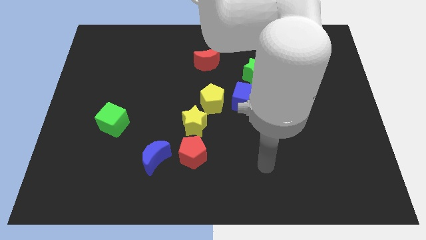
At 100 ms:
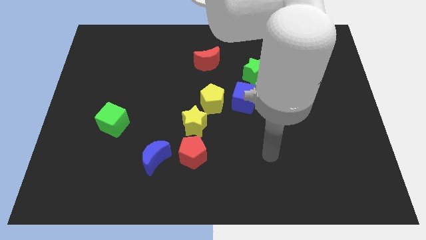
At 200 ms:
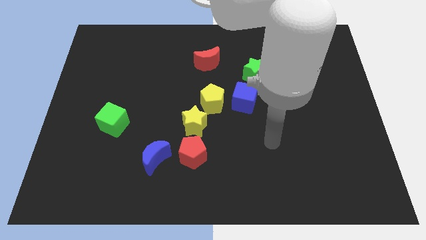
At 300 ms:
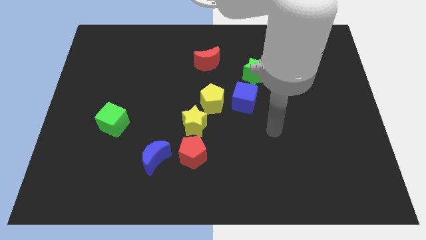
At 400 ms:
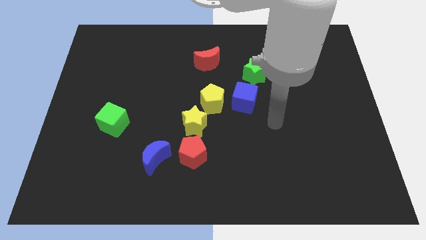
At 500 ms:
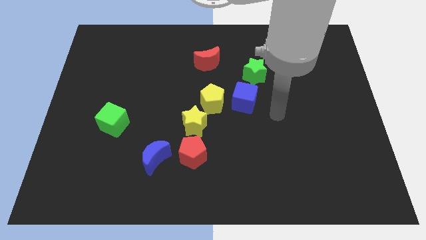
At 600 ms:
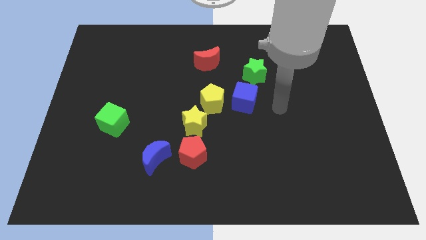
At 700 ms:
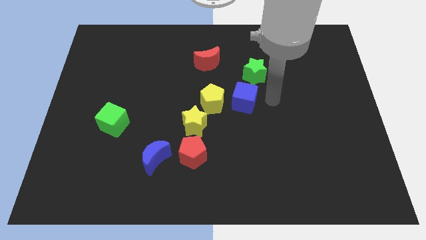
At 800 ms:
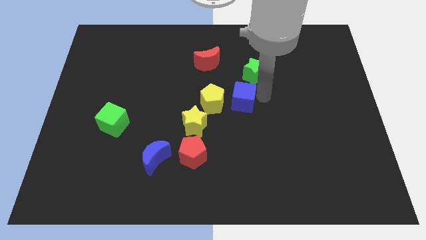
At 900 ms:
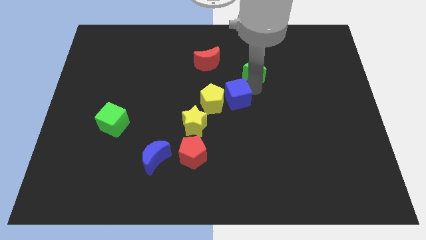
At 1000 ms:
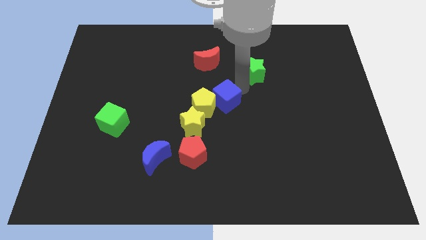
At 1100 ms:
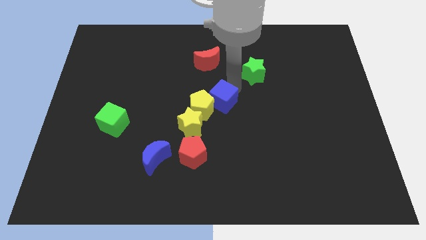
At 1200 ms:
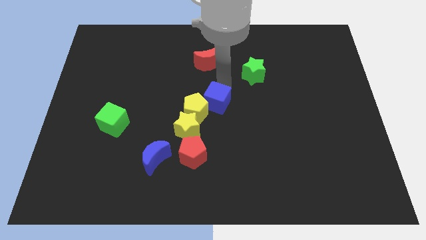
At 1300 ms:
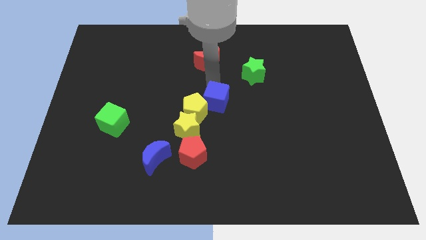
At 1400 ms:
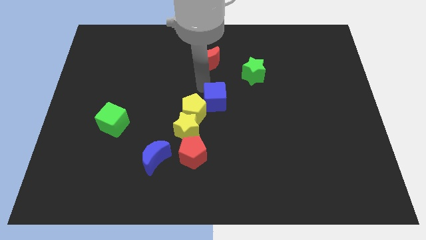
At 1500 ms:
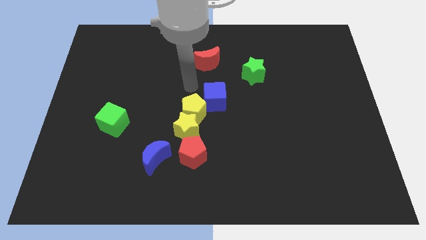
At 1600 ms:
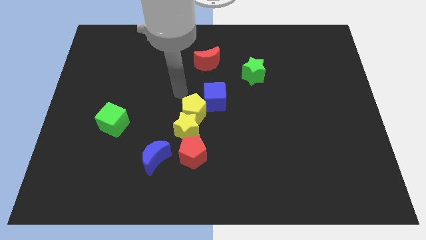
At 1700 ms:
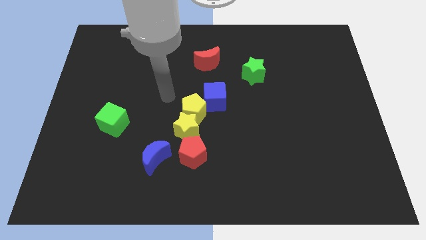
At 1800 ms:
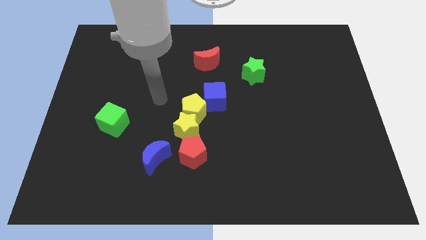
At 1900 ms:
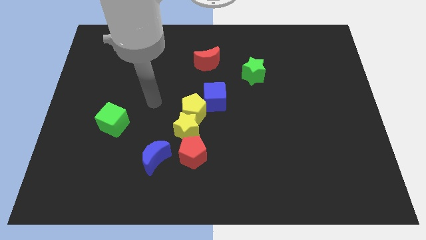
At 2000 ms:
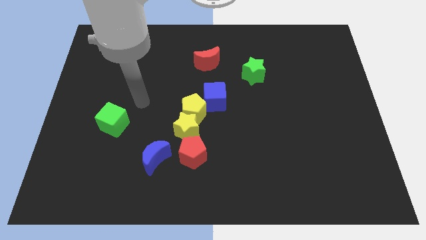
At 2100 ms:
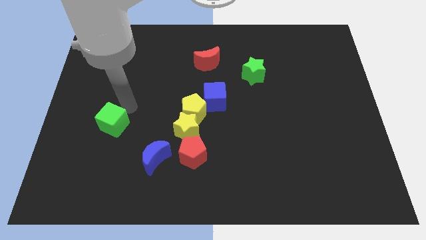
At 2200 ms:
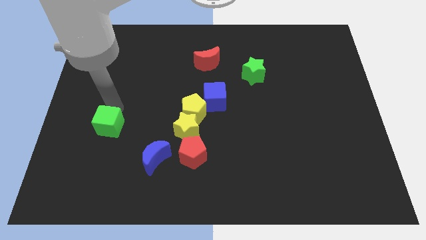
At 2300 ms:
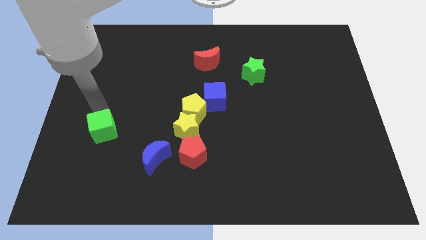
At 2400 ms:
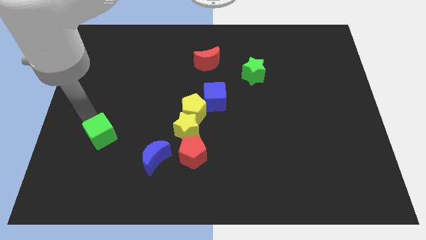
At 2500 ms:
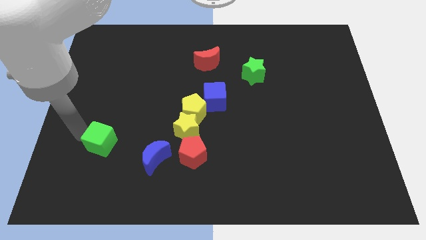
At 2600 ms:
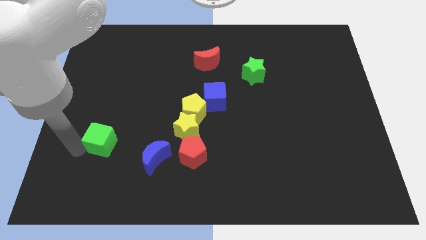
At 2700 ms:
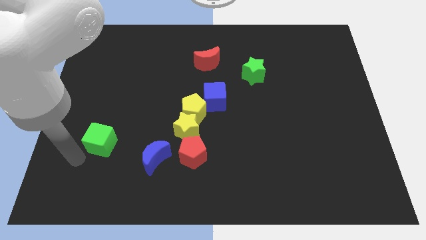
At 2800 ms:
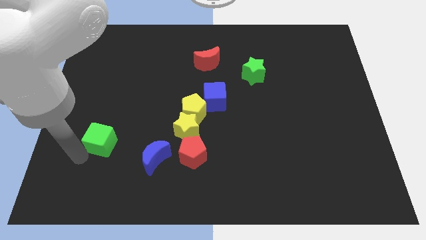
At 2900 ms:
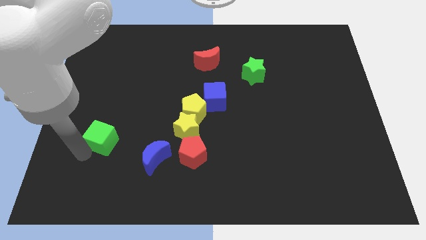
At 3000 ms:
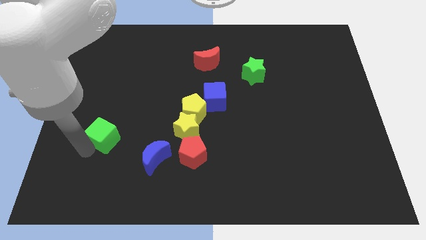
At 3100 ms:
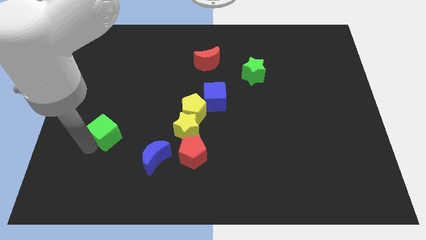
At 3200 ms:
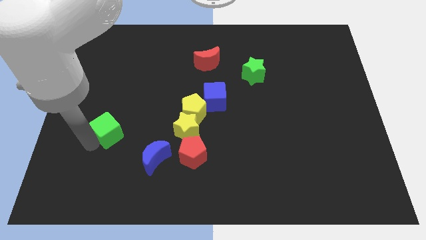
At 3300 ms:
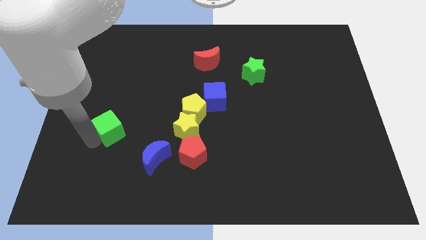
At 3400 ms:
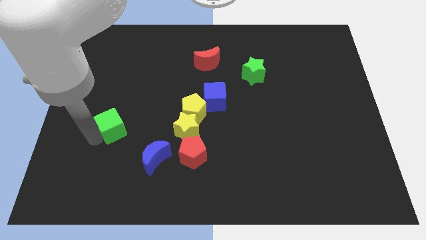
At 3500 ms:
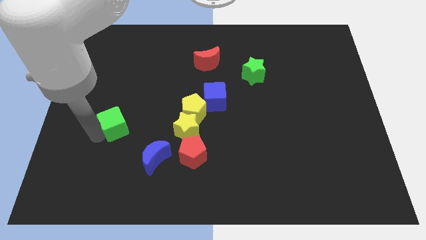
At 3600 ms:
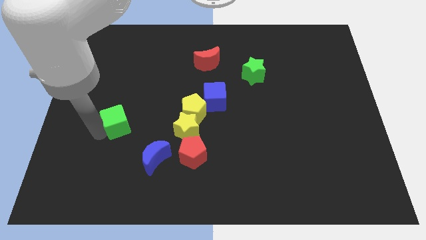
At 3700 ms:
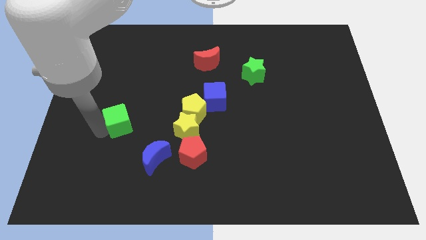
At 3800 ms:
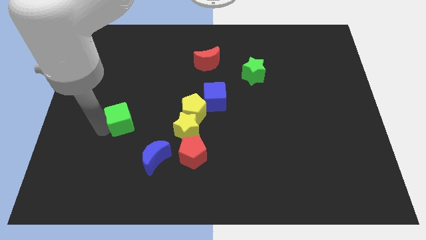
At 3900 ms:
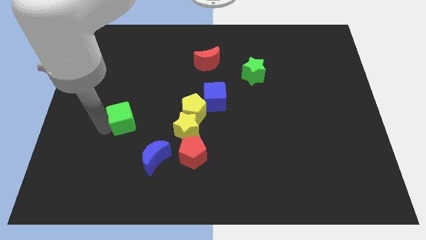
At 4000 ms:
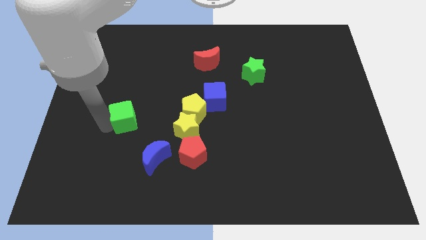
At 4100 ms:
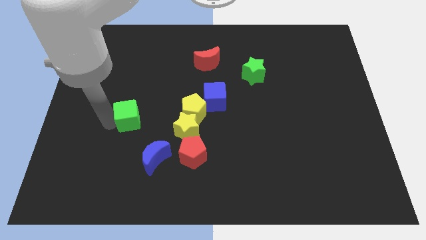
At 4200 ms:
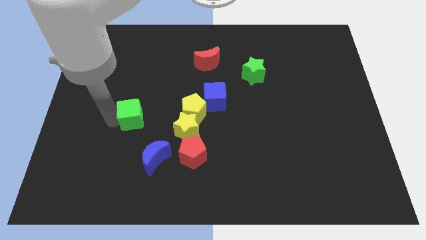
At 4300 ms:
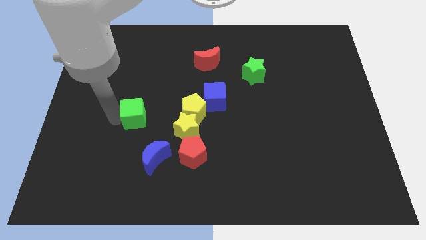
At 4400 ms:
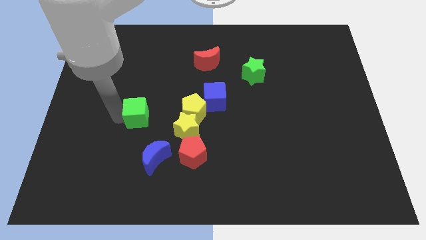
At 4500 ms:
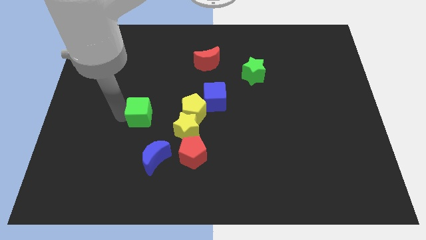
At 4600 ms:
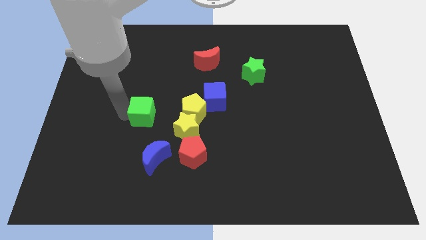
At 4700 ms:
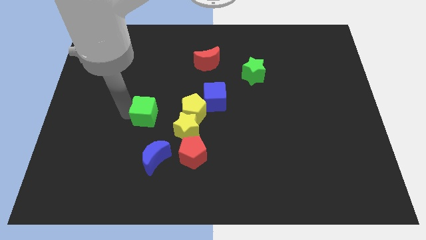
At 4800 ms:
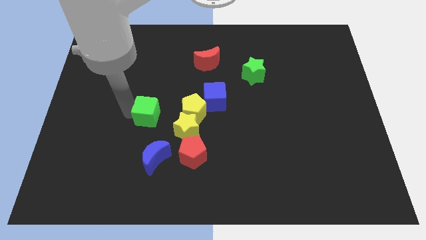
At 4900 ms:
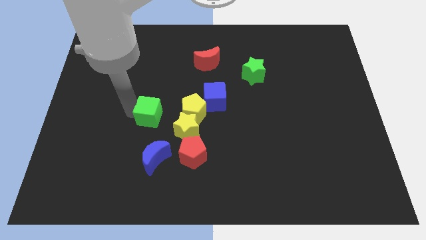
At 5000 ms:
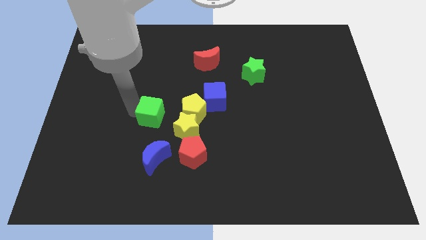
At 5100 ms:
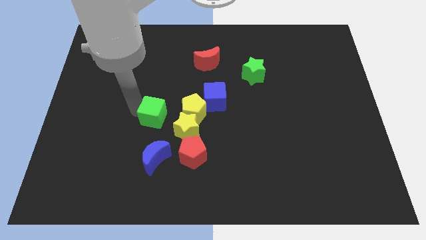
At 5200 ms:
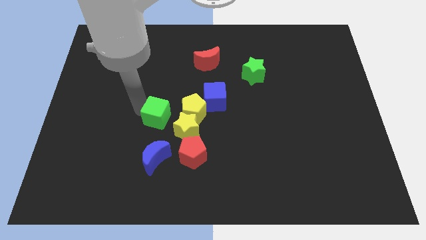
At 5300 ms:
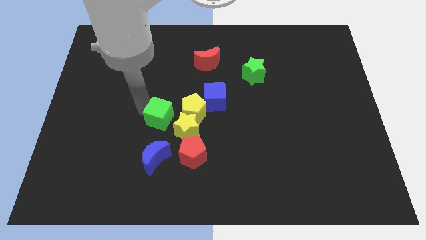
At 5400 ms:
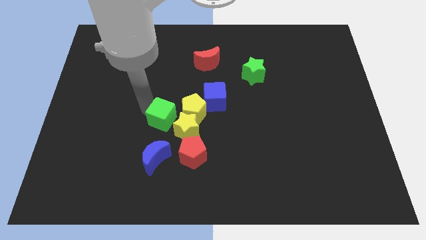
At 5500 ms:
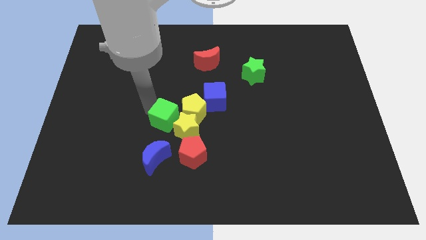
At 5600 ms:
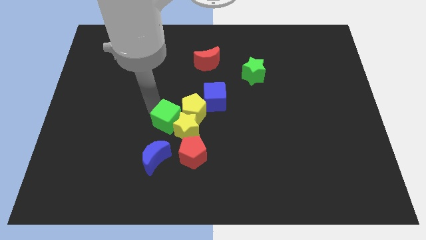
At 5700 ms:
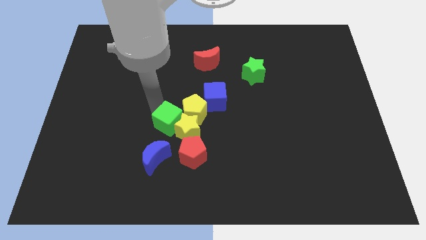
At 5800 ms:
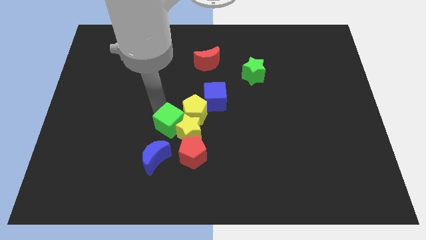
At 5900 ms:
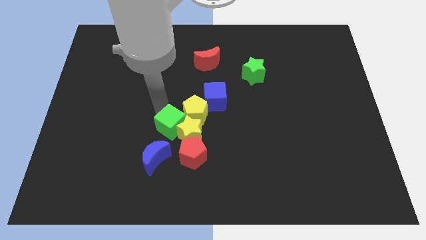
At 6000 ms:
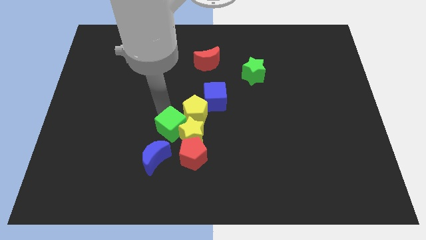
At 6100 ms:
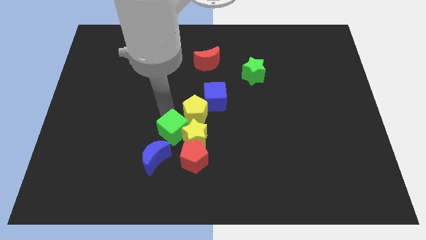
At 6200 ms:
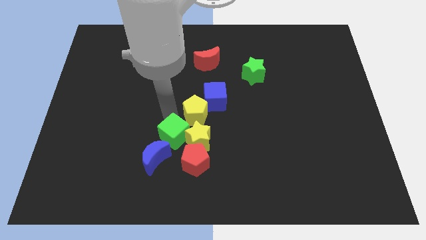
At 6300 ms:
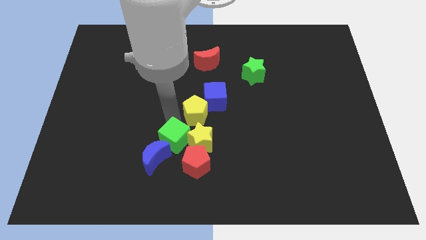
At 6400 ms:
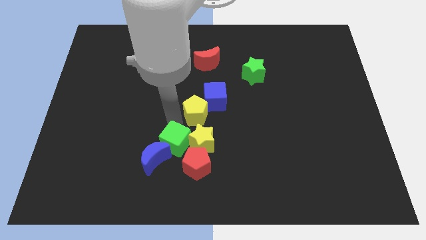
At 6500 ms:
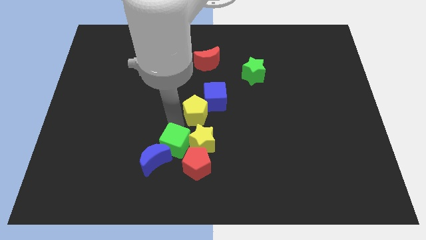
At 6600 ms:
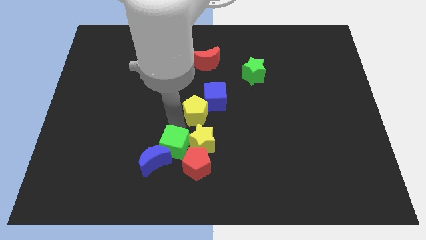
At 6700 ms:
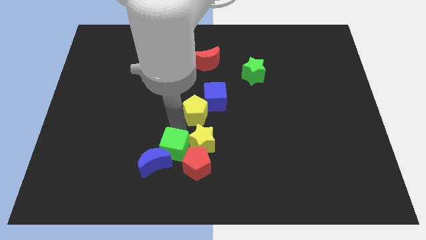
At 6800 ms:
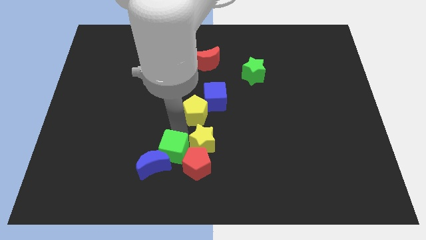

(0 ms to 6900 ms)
slide the green cube close to the red pentagon

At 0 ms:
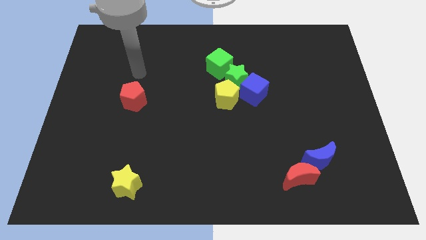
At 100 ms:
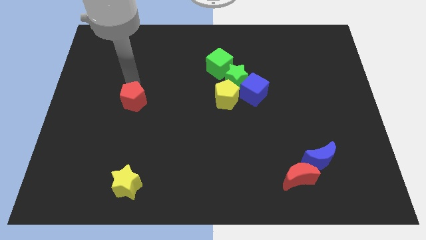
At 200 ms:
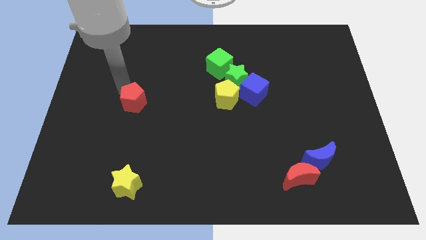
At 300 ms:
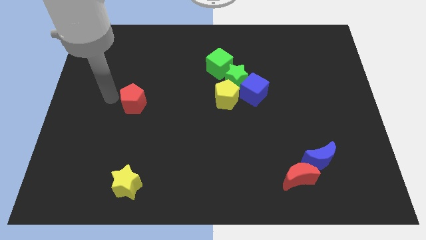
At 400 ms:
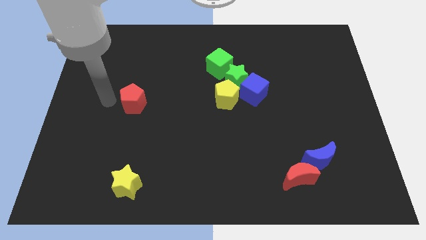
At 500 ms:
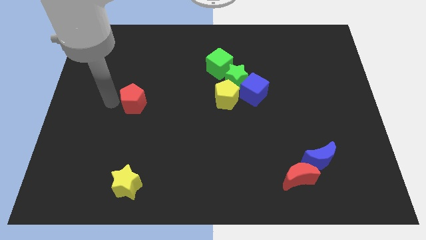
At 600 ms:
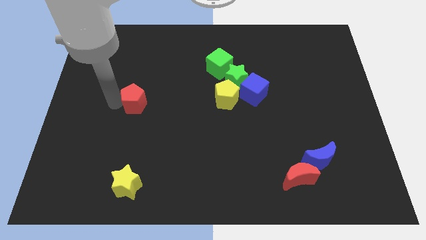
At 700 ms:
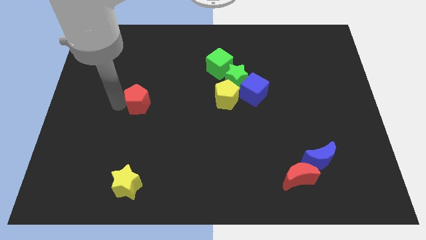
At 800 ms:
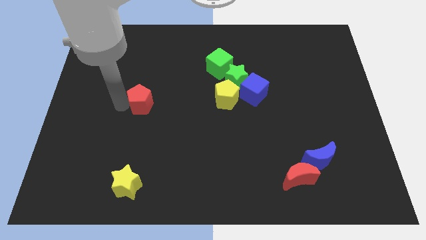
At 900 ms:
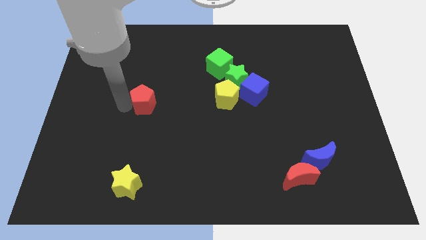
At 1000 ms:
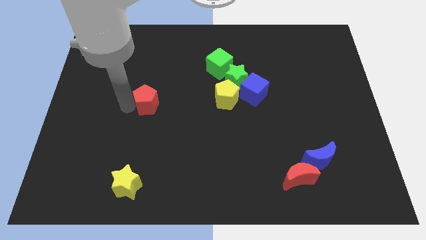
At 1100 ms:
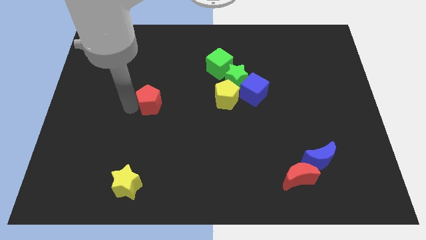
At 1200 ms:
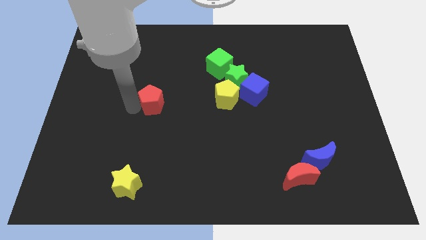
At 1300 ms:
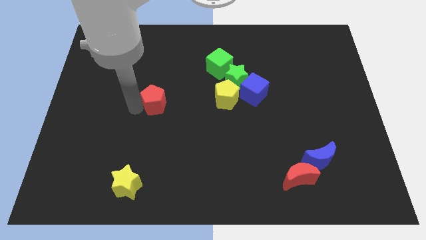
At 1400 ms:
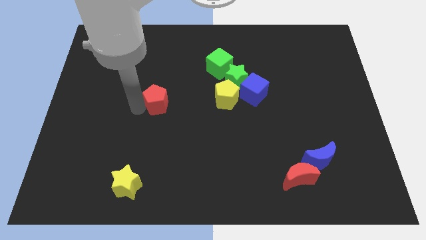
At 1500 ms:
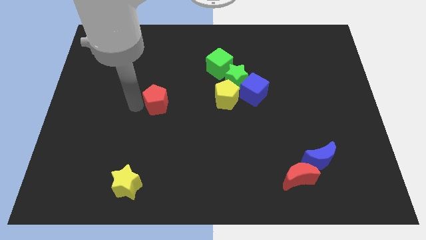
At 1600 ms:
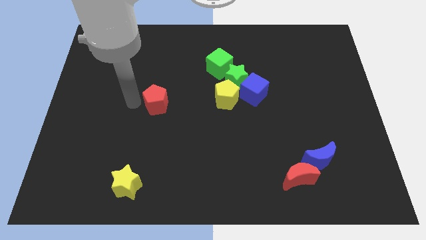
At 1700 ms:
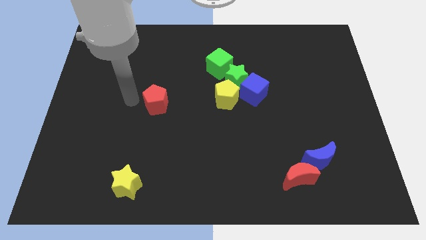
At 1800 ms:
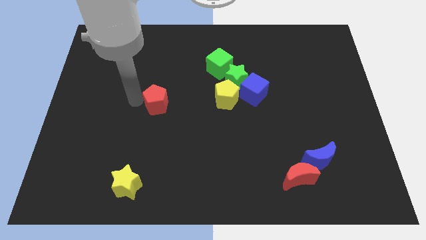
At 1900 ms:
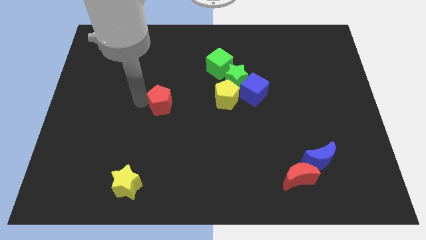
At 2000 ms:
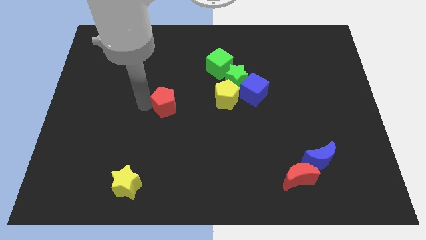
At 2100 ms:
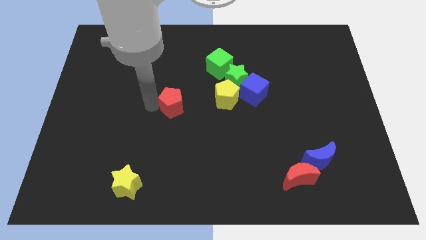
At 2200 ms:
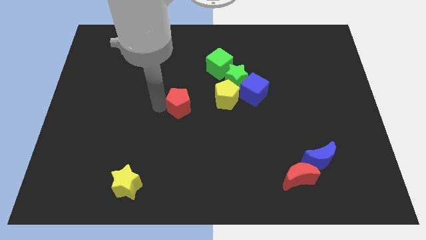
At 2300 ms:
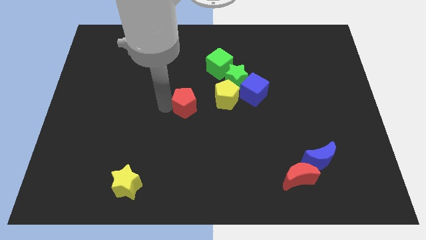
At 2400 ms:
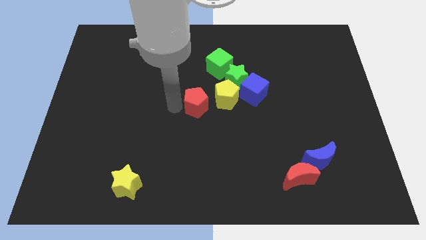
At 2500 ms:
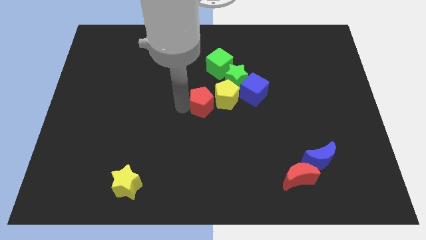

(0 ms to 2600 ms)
push the red pentagon to the yellow pentagon
